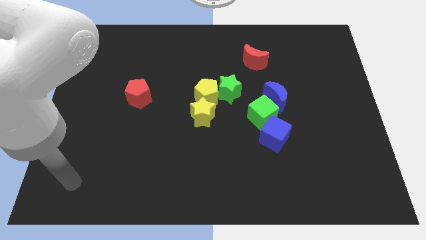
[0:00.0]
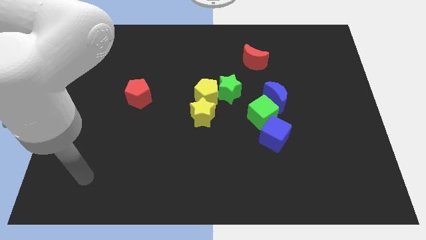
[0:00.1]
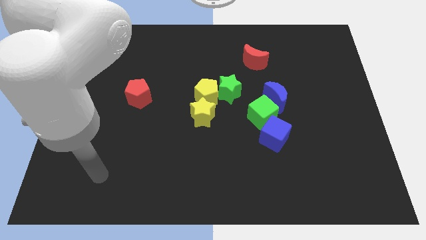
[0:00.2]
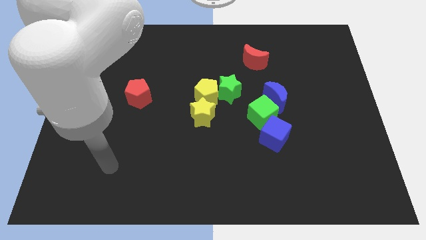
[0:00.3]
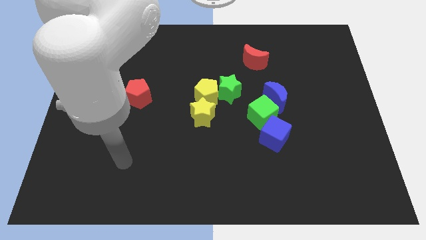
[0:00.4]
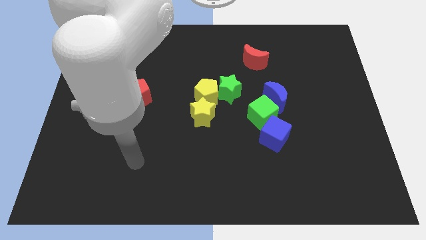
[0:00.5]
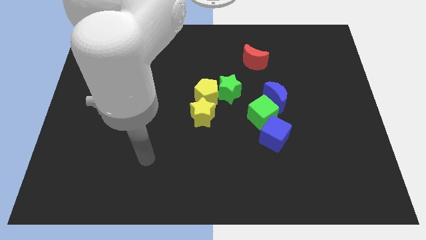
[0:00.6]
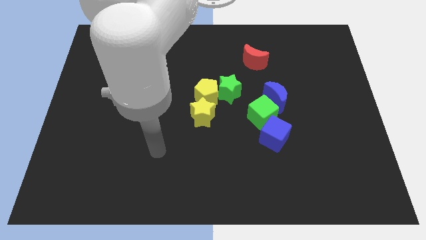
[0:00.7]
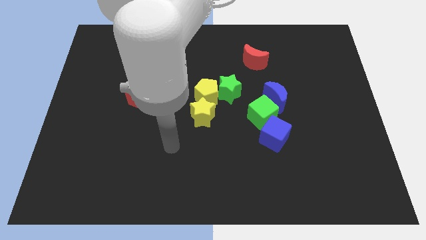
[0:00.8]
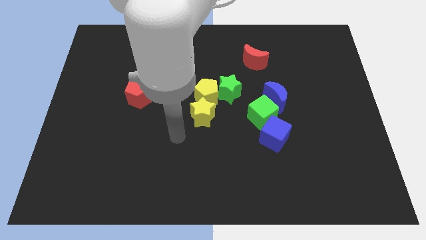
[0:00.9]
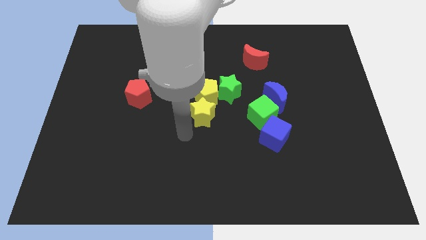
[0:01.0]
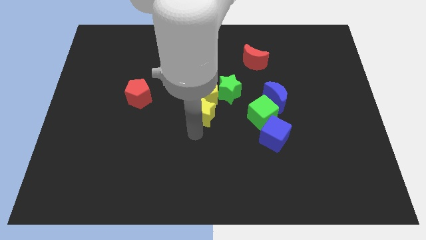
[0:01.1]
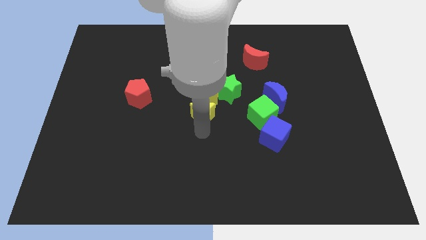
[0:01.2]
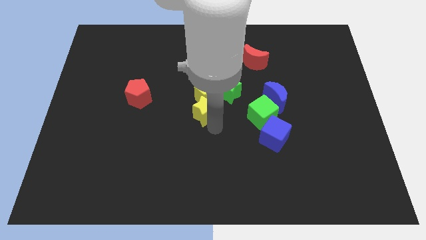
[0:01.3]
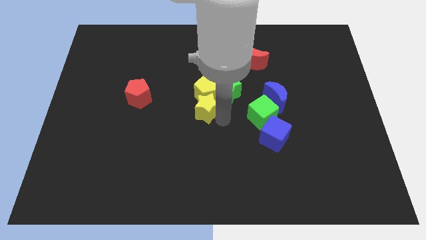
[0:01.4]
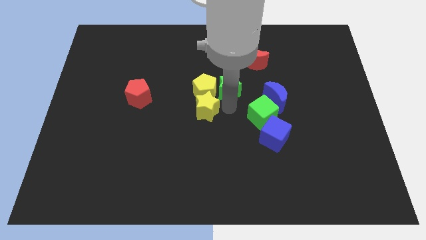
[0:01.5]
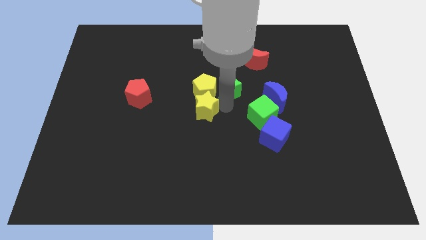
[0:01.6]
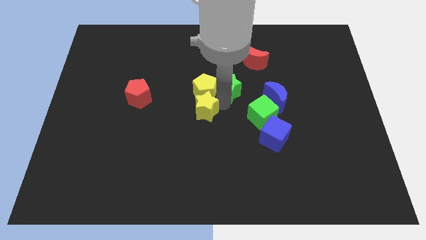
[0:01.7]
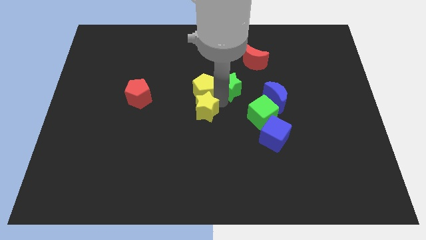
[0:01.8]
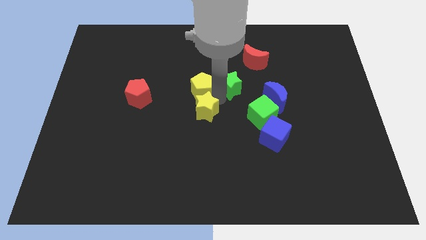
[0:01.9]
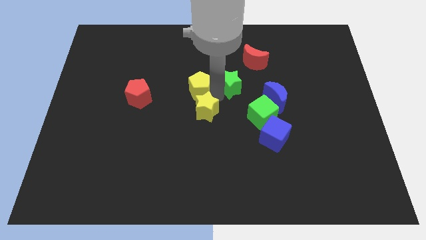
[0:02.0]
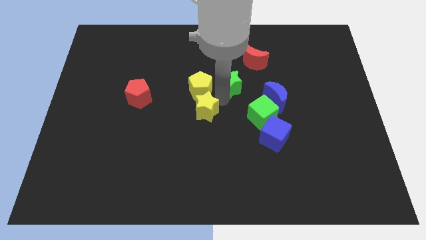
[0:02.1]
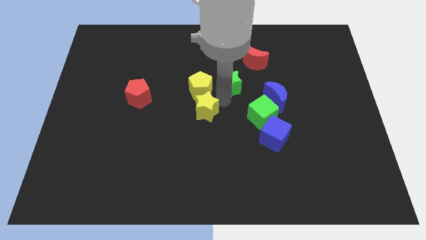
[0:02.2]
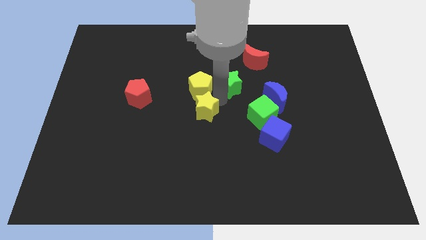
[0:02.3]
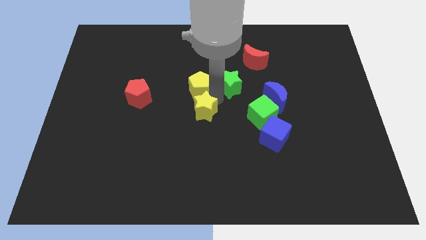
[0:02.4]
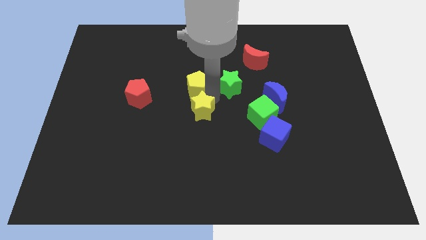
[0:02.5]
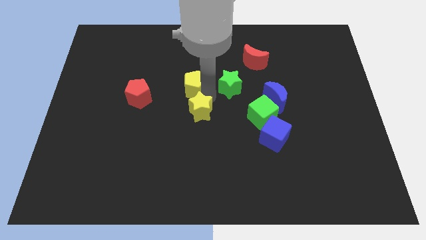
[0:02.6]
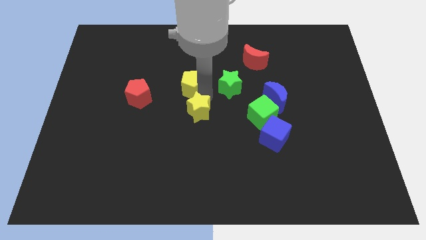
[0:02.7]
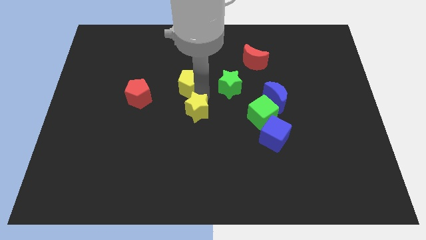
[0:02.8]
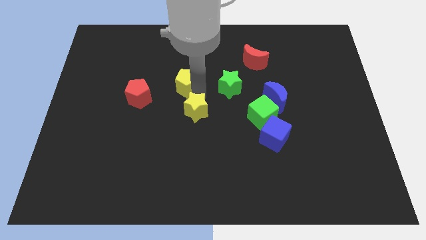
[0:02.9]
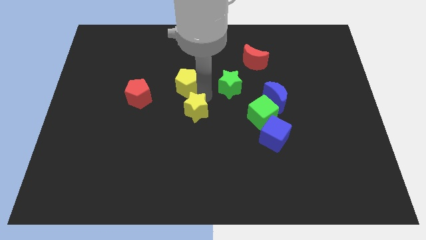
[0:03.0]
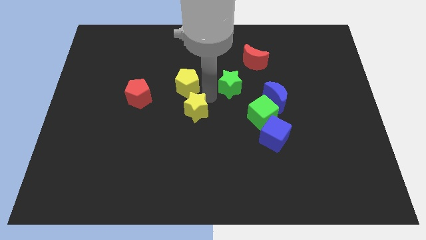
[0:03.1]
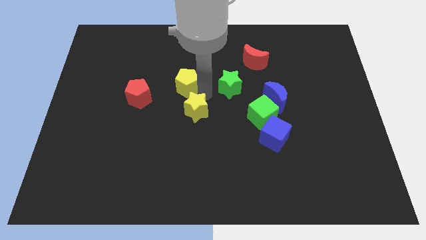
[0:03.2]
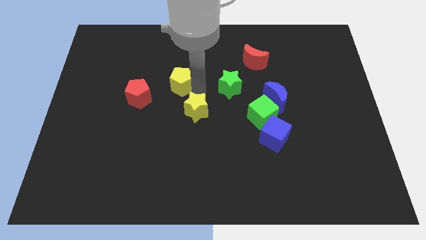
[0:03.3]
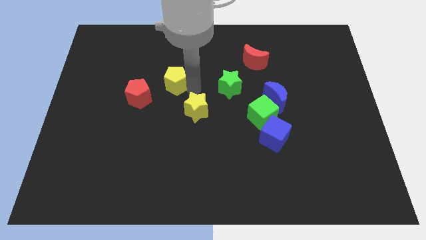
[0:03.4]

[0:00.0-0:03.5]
move the yellow pentagon away from the green star and yellow star

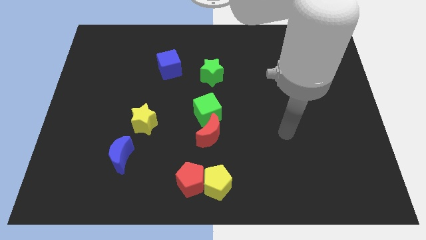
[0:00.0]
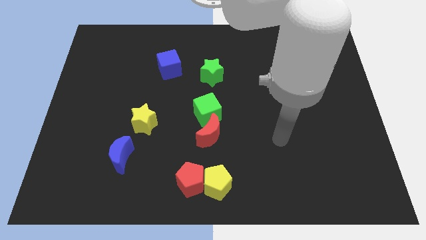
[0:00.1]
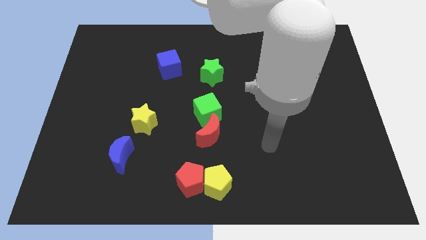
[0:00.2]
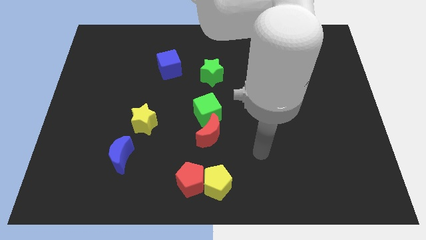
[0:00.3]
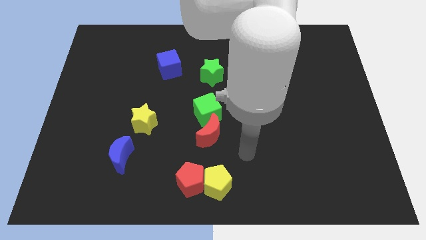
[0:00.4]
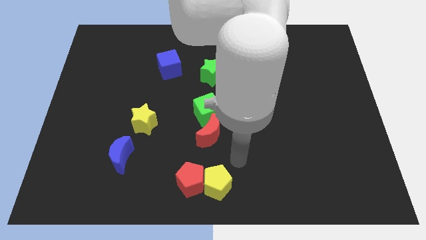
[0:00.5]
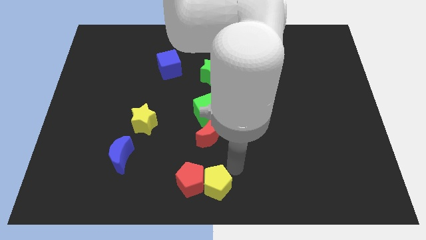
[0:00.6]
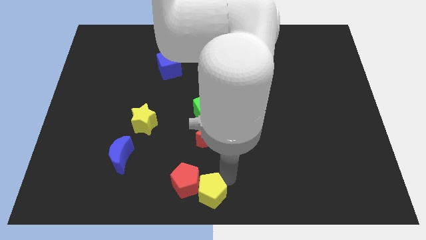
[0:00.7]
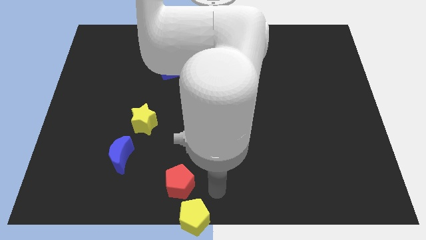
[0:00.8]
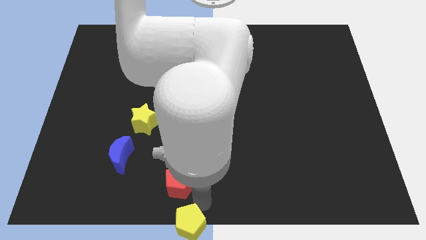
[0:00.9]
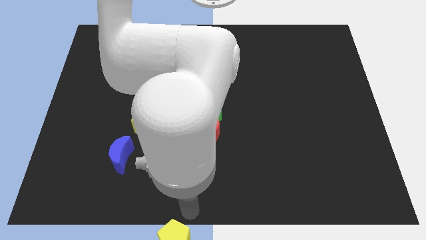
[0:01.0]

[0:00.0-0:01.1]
move the red pentagon away from the yellow pentagon

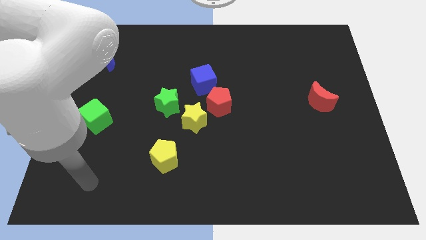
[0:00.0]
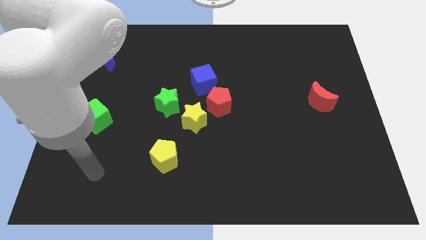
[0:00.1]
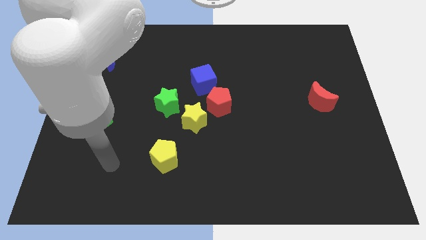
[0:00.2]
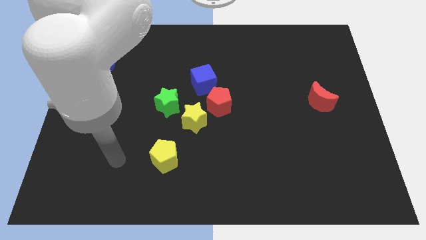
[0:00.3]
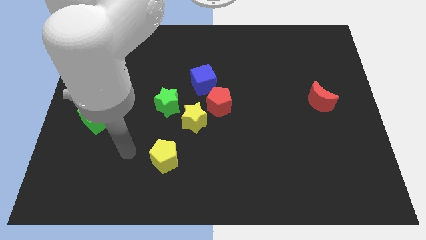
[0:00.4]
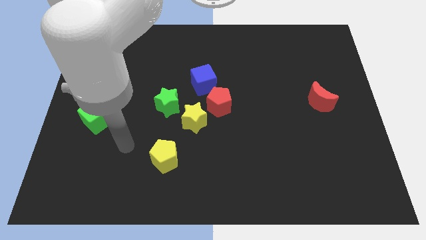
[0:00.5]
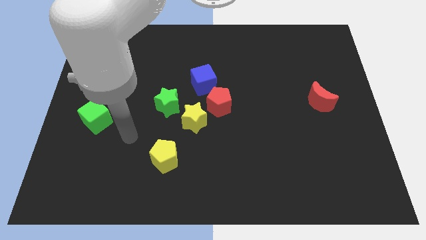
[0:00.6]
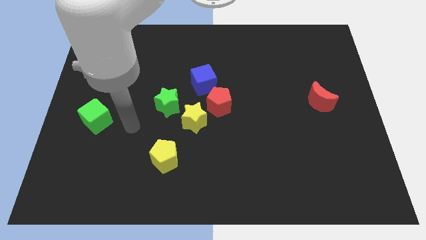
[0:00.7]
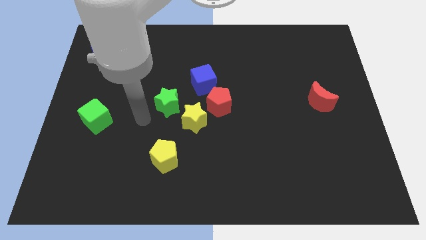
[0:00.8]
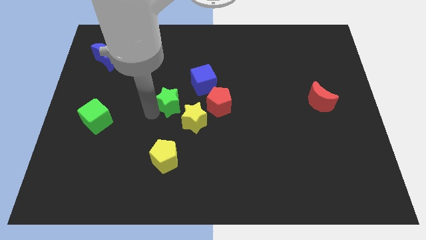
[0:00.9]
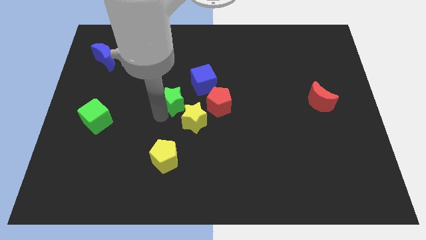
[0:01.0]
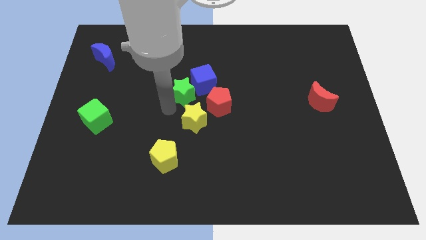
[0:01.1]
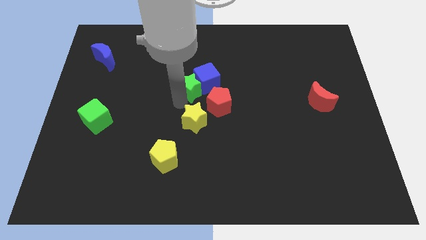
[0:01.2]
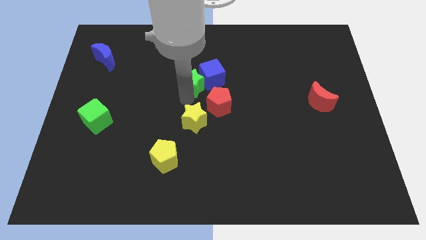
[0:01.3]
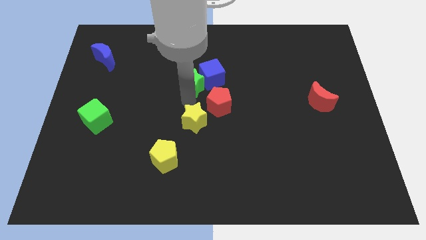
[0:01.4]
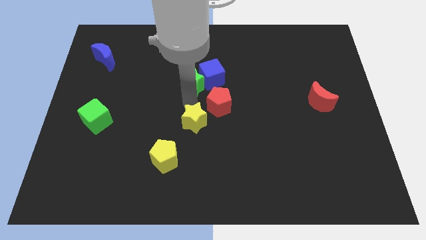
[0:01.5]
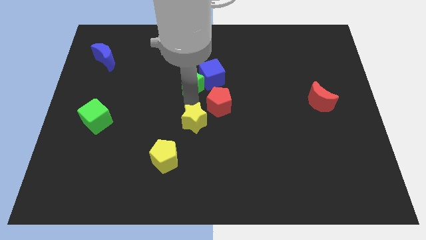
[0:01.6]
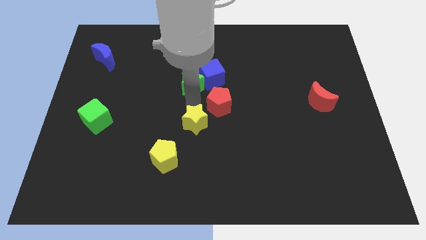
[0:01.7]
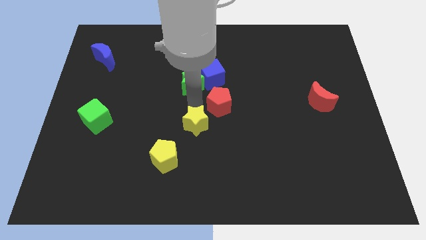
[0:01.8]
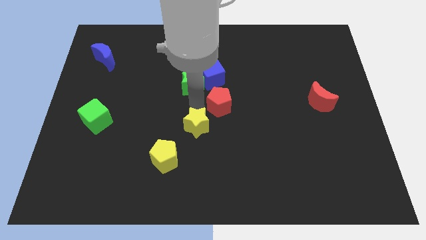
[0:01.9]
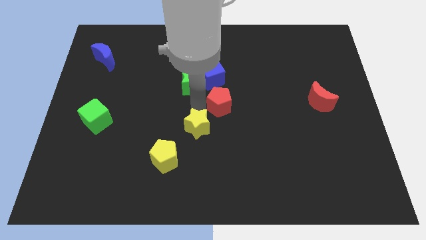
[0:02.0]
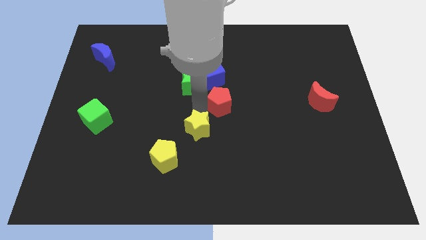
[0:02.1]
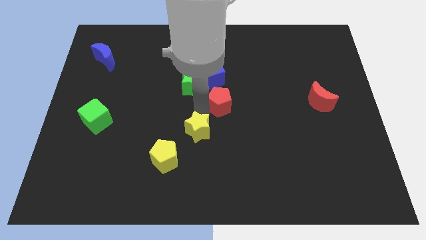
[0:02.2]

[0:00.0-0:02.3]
separate the yellow star from the red pentagon and green star

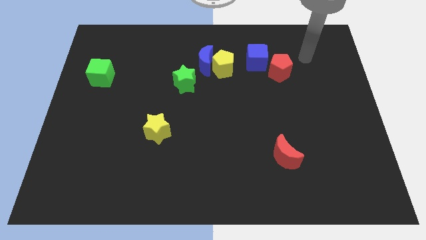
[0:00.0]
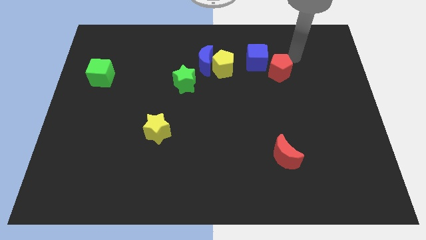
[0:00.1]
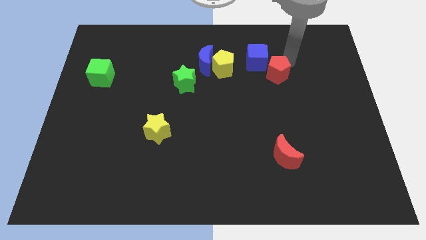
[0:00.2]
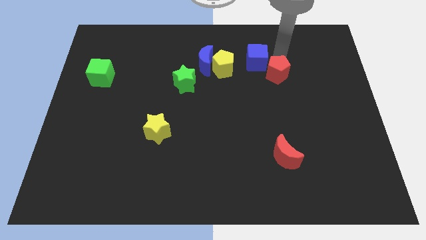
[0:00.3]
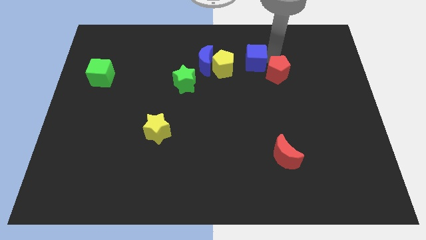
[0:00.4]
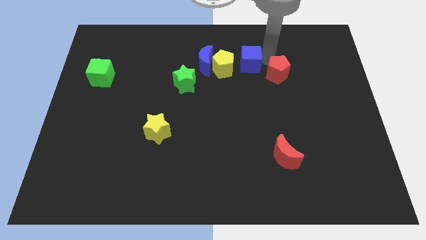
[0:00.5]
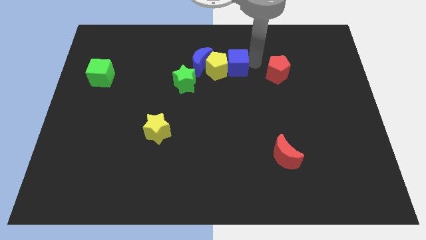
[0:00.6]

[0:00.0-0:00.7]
separate the red pentagon from the blue cube

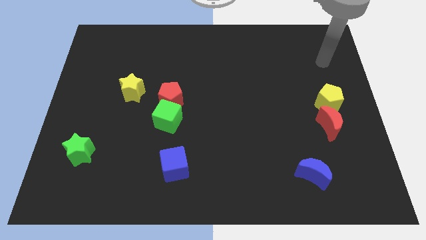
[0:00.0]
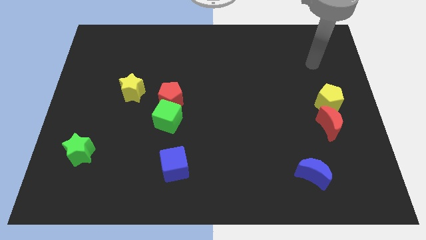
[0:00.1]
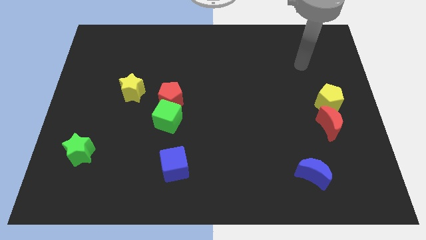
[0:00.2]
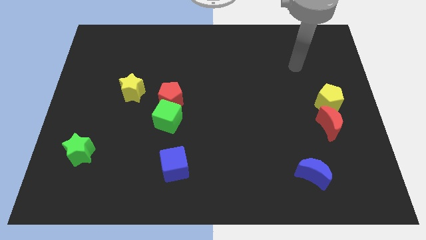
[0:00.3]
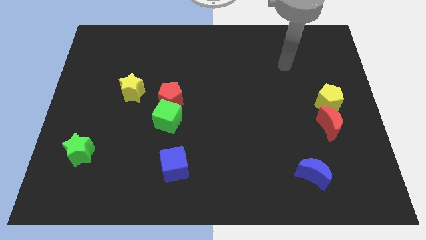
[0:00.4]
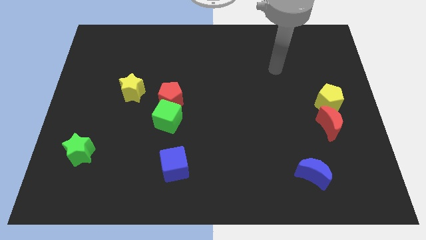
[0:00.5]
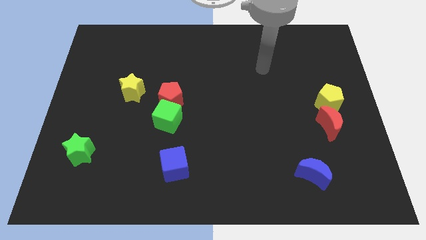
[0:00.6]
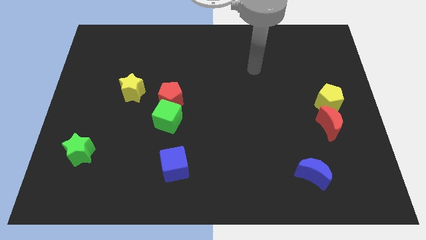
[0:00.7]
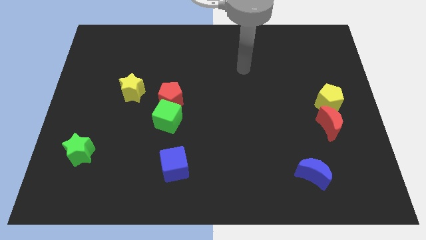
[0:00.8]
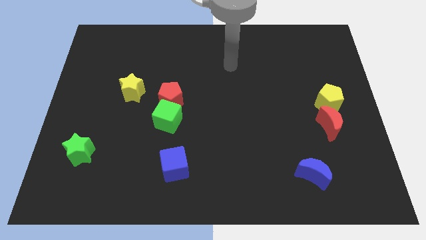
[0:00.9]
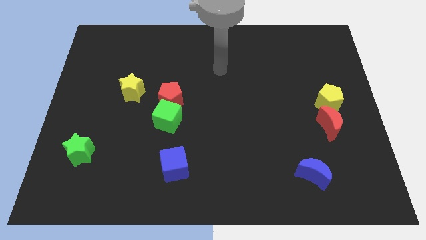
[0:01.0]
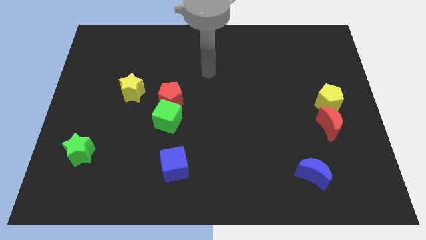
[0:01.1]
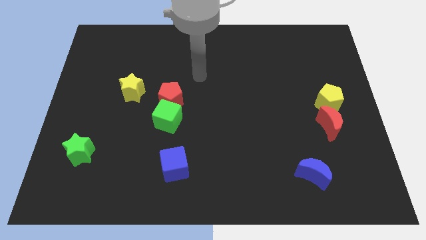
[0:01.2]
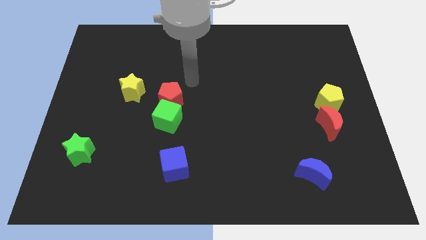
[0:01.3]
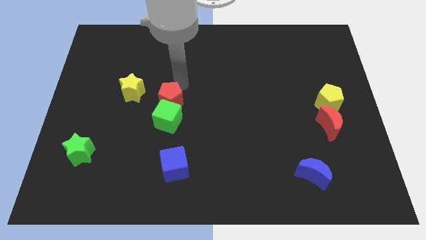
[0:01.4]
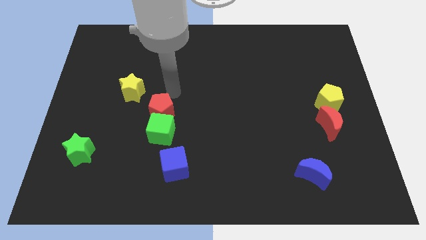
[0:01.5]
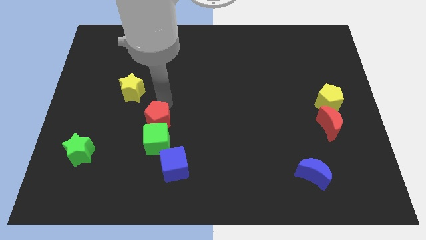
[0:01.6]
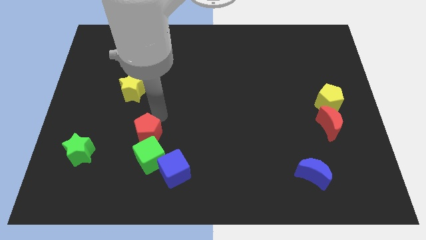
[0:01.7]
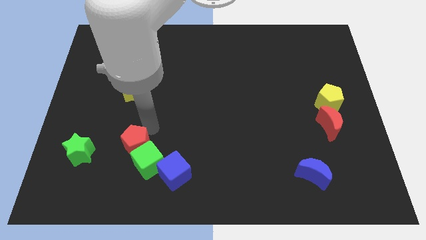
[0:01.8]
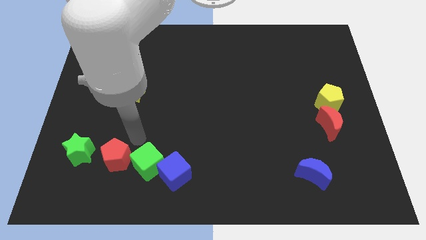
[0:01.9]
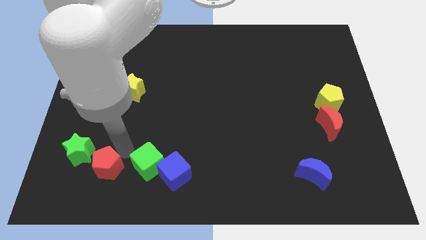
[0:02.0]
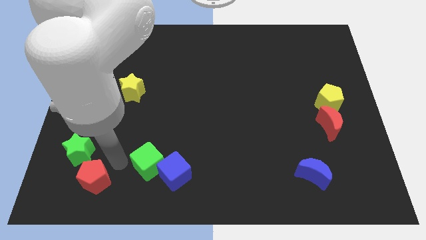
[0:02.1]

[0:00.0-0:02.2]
separate the green cube from the red pentagon
